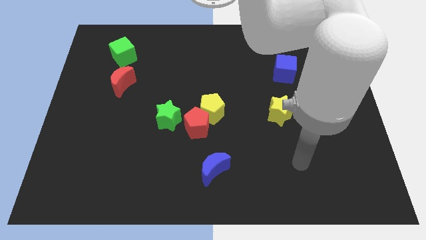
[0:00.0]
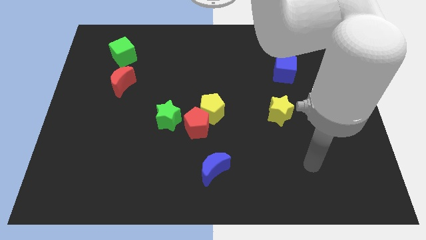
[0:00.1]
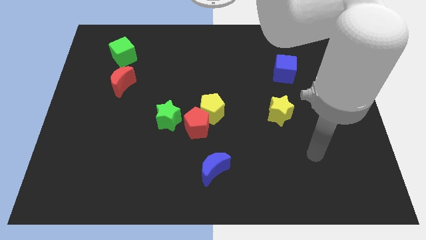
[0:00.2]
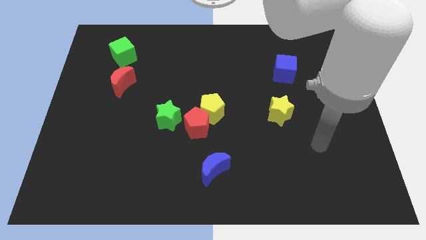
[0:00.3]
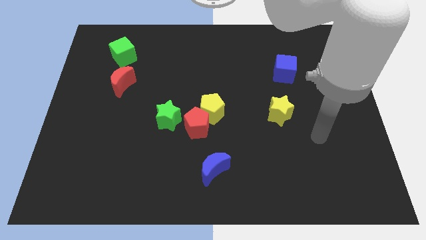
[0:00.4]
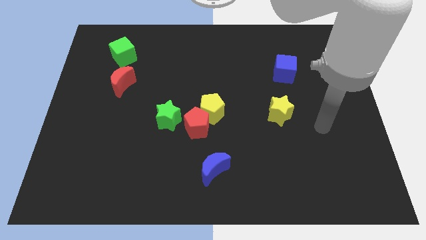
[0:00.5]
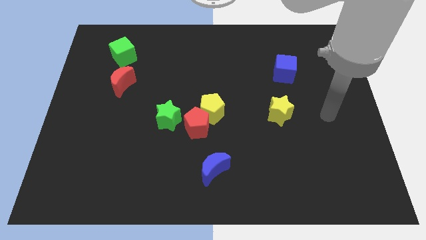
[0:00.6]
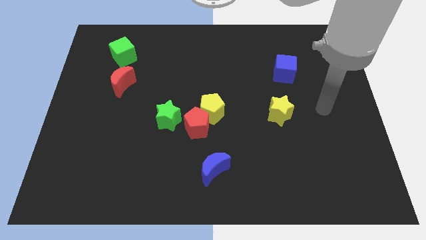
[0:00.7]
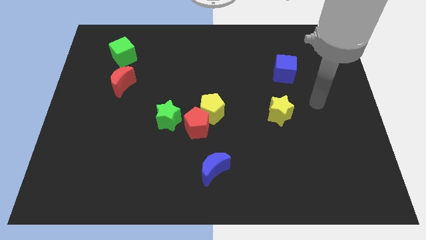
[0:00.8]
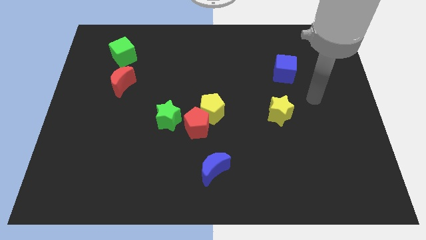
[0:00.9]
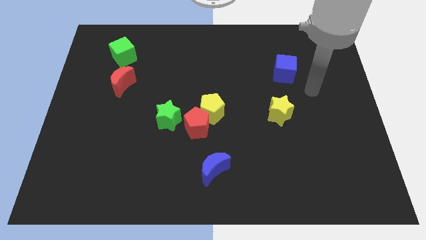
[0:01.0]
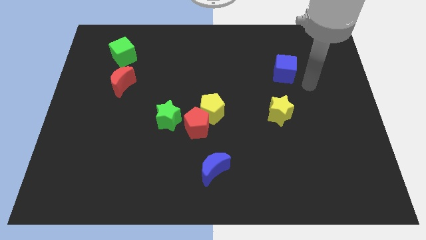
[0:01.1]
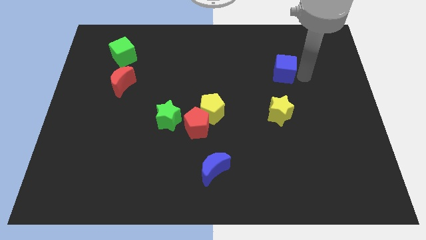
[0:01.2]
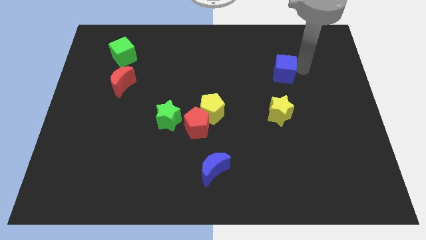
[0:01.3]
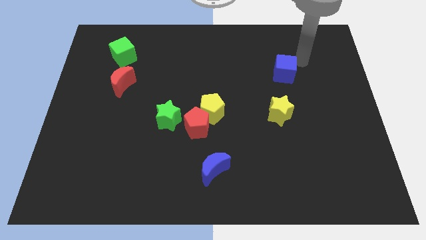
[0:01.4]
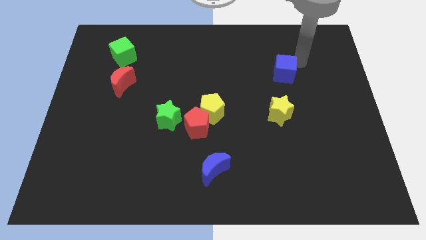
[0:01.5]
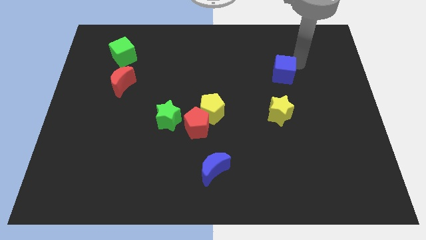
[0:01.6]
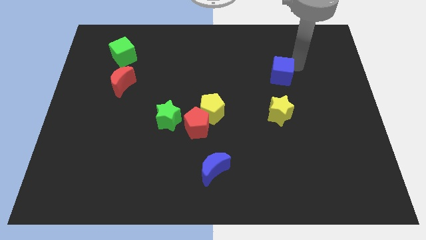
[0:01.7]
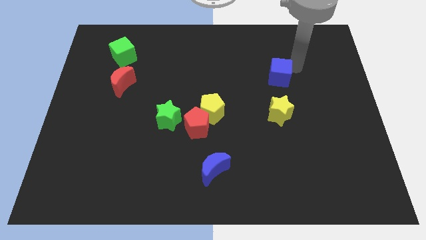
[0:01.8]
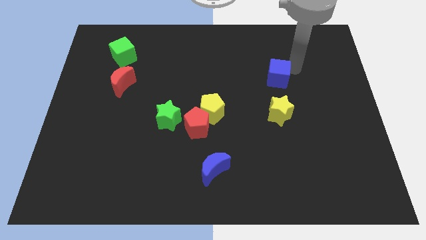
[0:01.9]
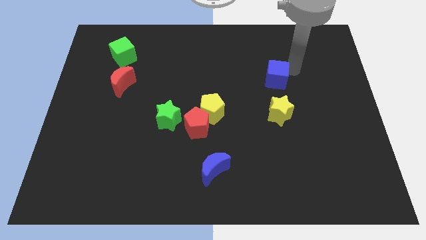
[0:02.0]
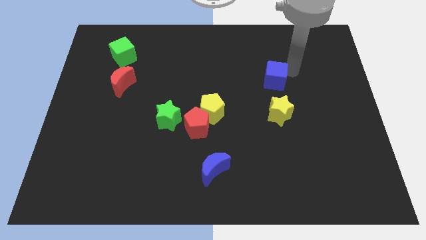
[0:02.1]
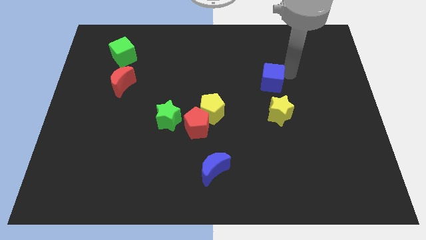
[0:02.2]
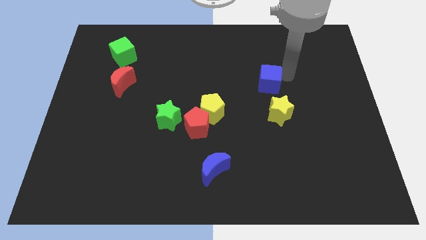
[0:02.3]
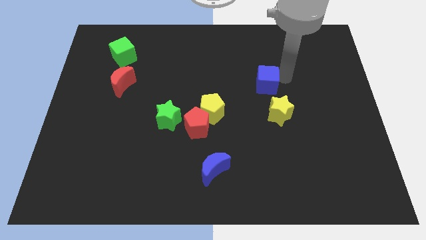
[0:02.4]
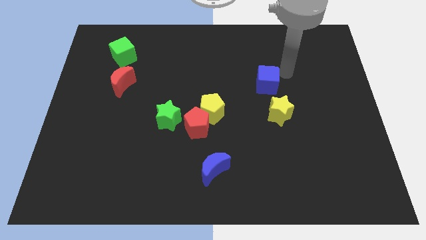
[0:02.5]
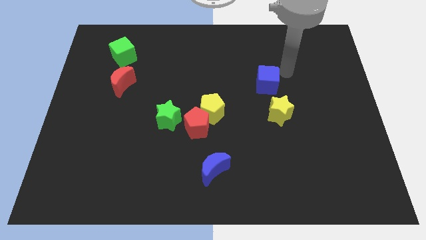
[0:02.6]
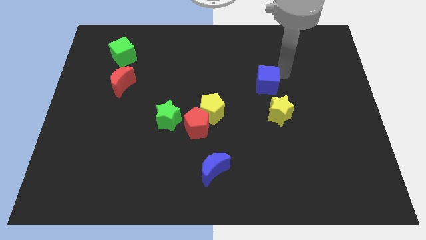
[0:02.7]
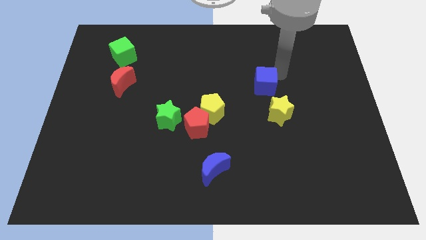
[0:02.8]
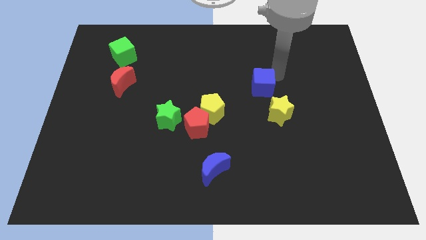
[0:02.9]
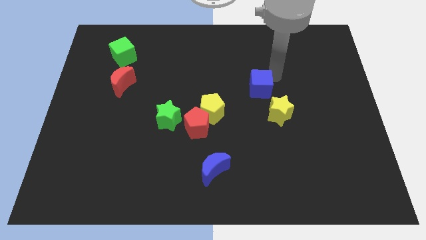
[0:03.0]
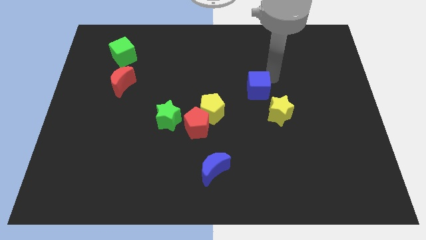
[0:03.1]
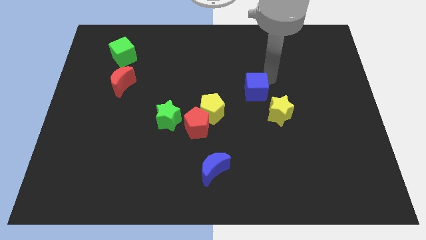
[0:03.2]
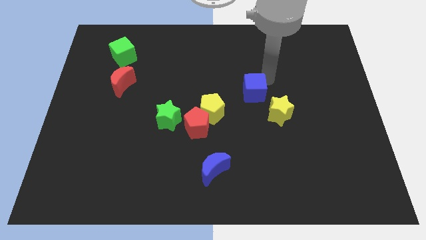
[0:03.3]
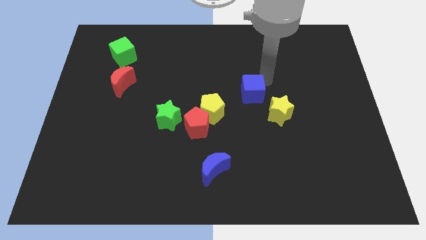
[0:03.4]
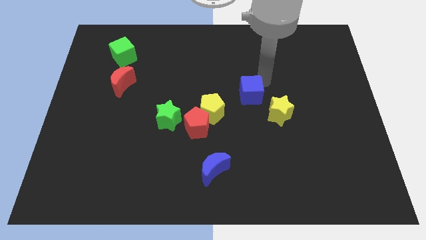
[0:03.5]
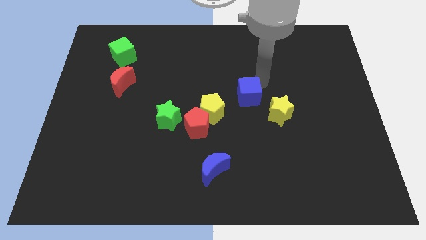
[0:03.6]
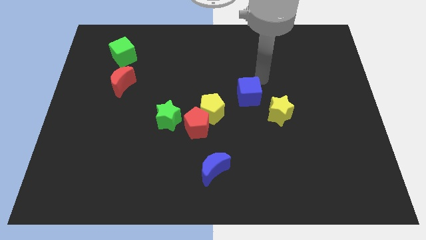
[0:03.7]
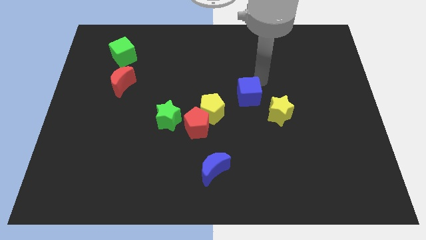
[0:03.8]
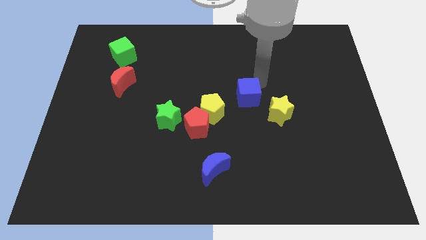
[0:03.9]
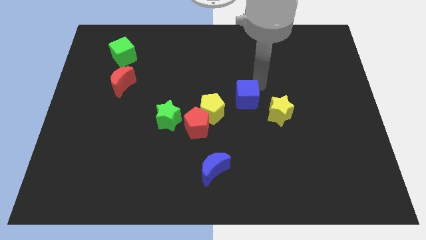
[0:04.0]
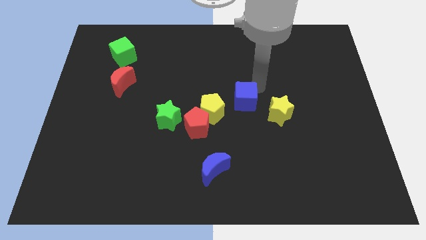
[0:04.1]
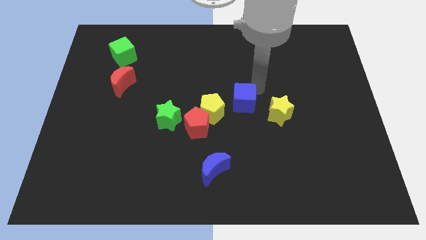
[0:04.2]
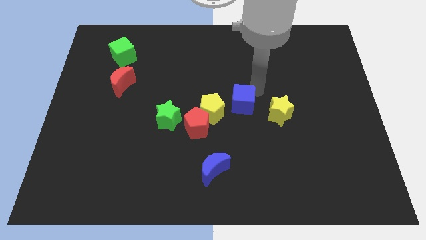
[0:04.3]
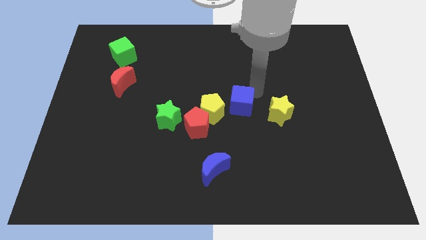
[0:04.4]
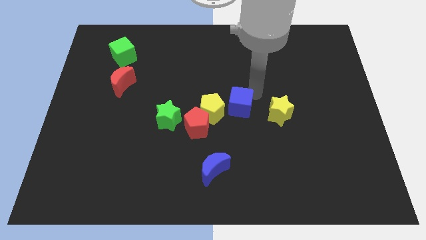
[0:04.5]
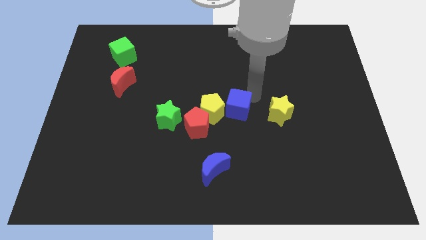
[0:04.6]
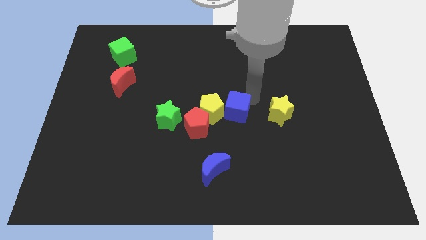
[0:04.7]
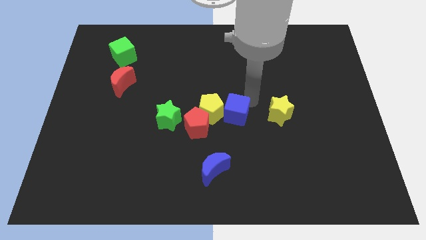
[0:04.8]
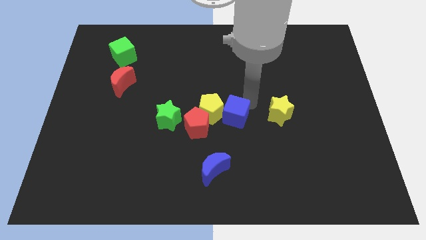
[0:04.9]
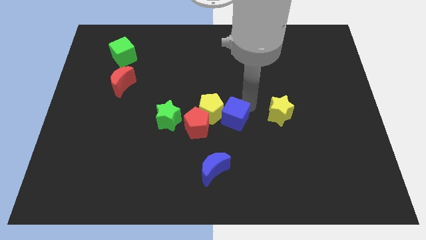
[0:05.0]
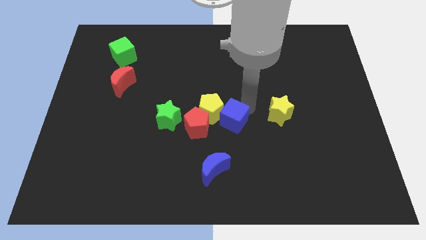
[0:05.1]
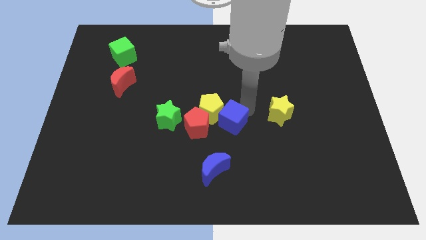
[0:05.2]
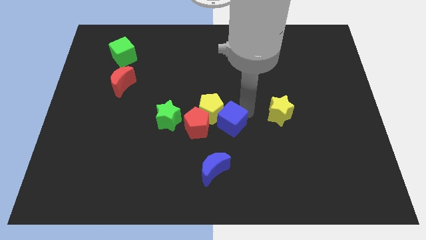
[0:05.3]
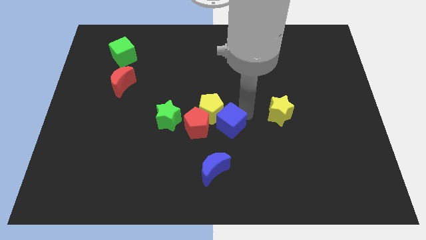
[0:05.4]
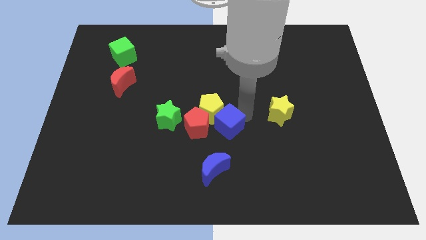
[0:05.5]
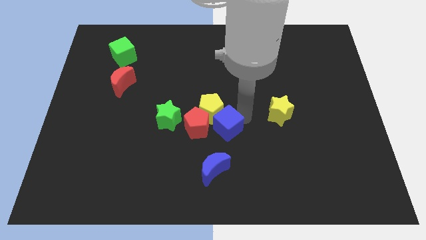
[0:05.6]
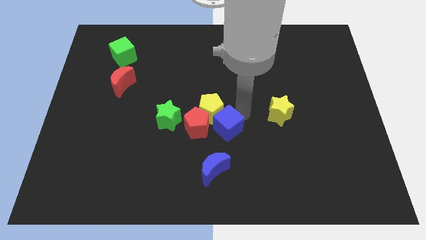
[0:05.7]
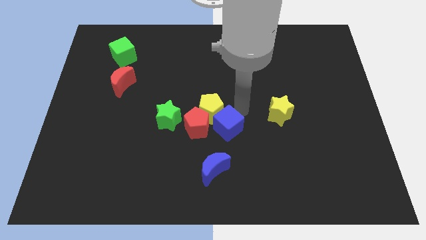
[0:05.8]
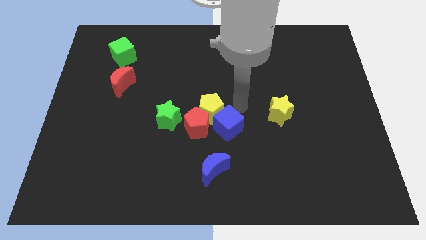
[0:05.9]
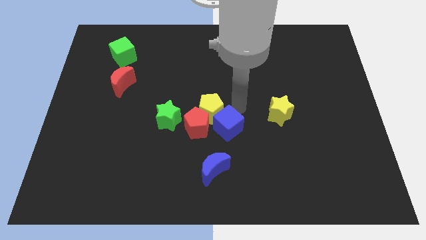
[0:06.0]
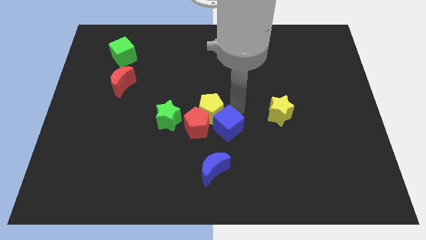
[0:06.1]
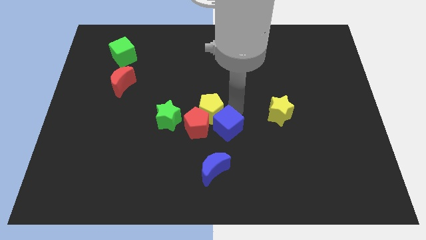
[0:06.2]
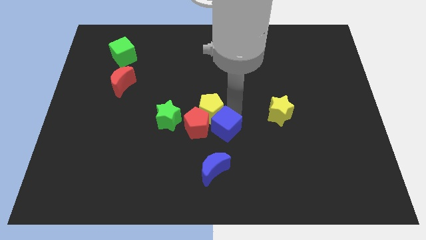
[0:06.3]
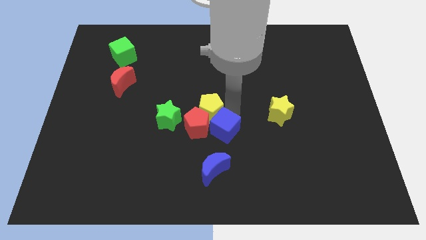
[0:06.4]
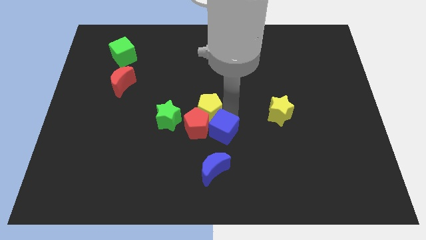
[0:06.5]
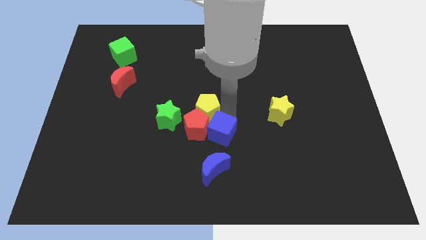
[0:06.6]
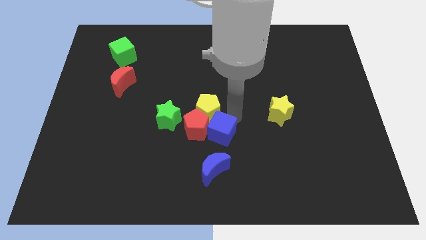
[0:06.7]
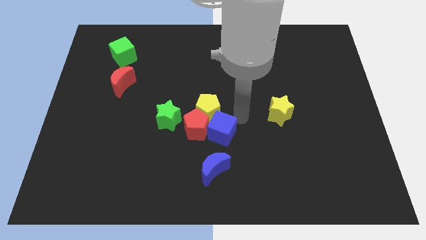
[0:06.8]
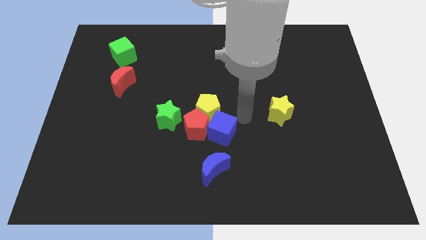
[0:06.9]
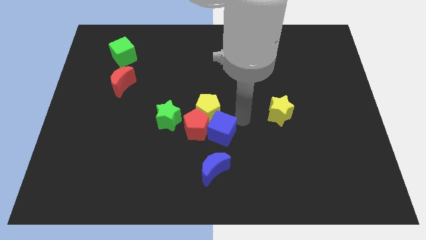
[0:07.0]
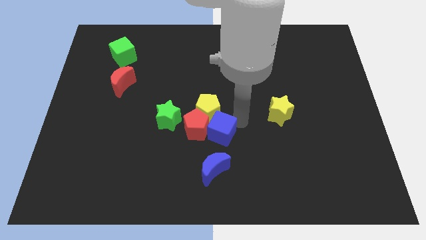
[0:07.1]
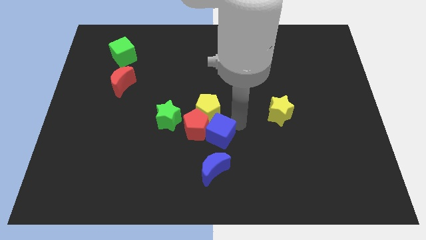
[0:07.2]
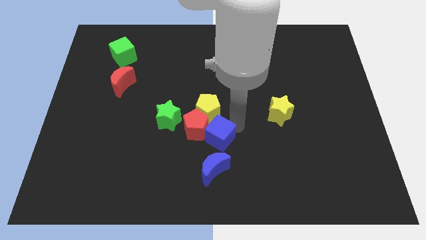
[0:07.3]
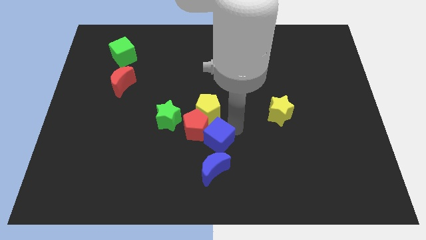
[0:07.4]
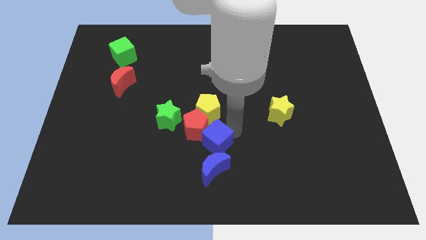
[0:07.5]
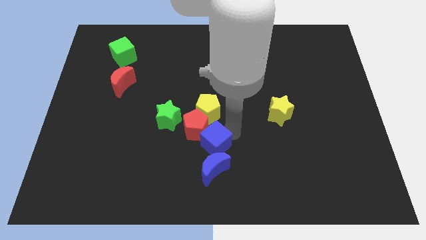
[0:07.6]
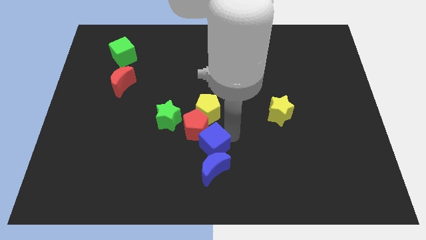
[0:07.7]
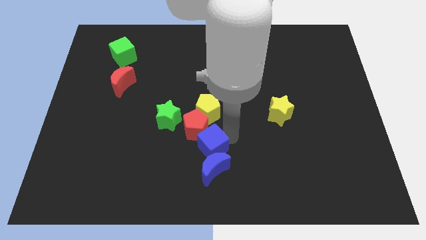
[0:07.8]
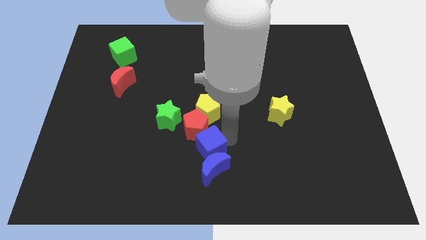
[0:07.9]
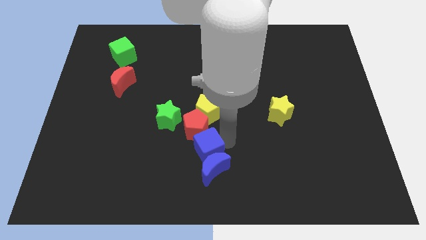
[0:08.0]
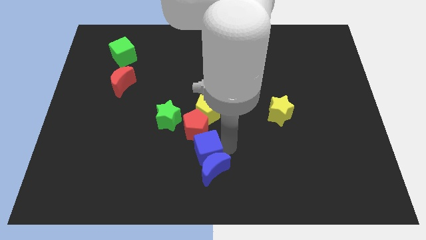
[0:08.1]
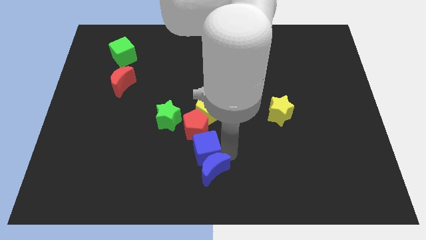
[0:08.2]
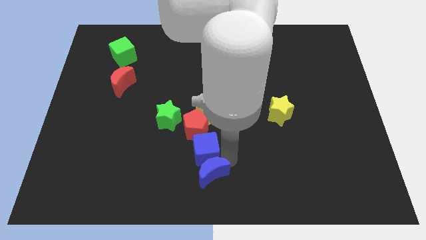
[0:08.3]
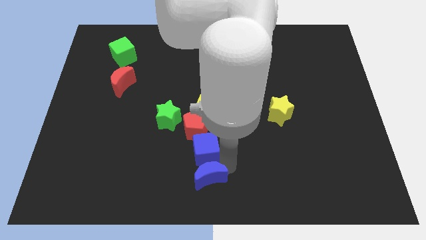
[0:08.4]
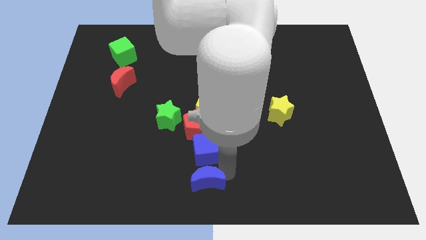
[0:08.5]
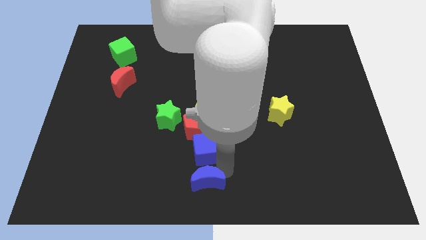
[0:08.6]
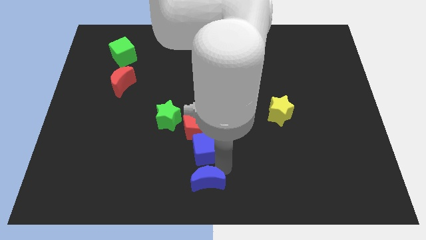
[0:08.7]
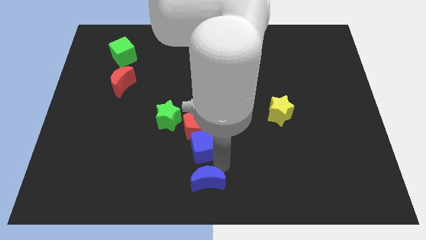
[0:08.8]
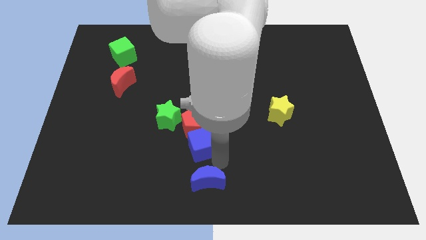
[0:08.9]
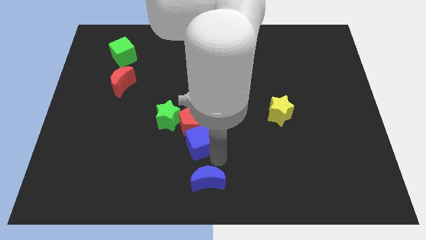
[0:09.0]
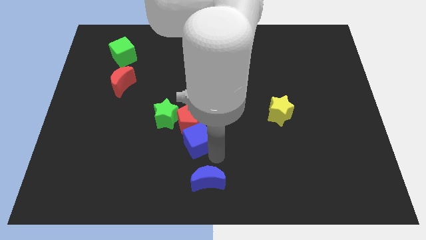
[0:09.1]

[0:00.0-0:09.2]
move the blue cube diagonally down and to the left of the yellow pentagon
